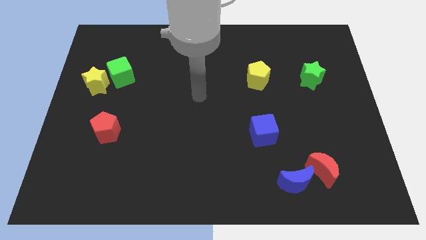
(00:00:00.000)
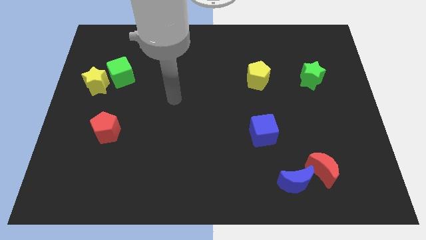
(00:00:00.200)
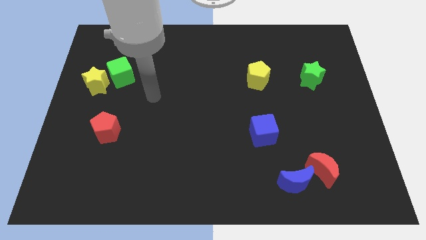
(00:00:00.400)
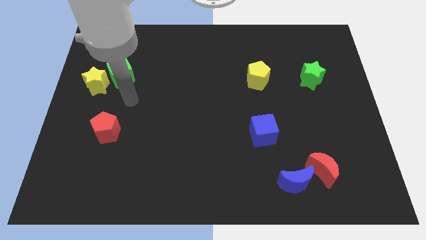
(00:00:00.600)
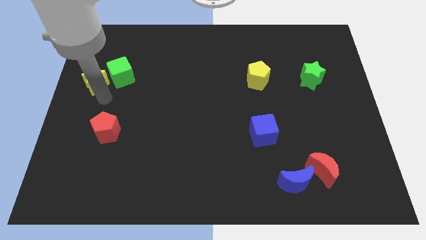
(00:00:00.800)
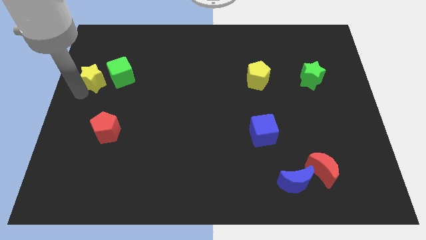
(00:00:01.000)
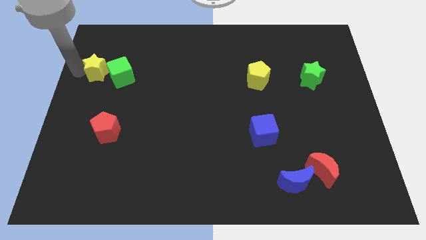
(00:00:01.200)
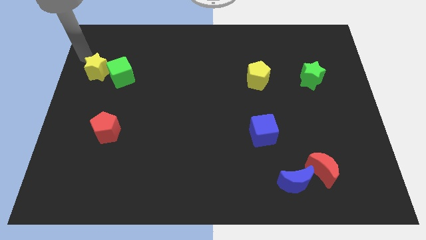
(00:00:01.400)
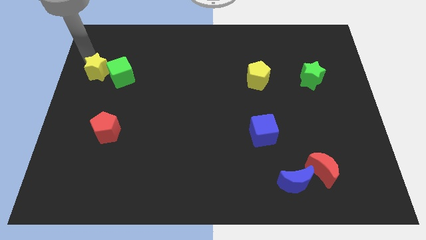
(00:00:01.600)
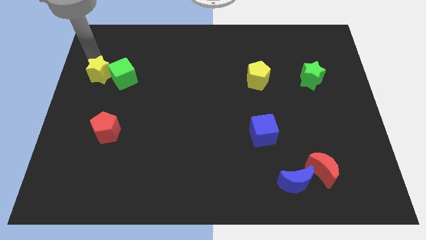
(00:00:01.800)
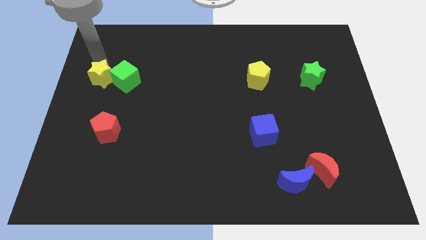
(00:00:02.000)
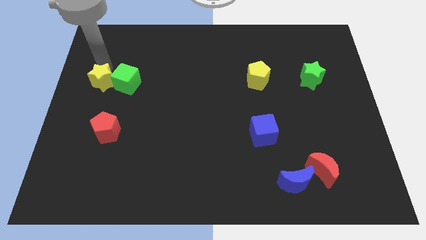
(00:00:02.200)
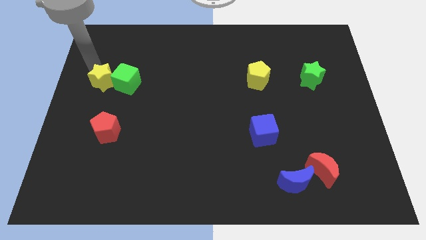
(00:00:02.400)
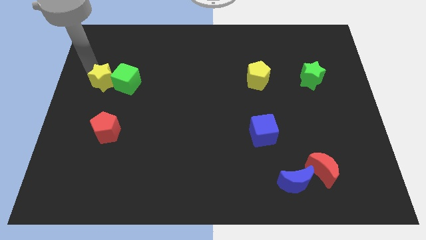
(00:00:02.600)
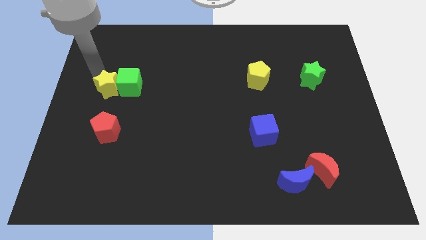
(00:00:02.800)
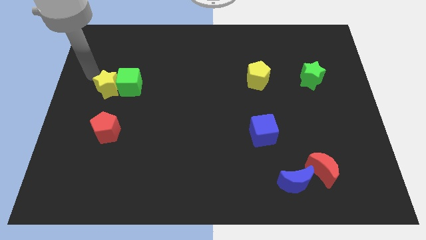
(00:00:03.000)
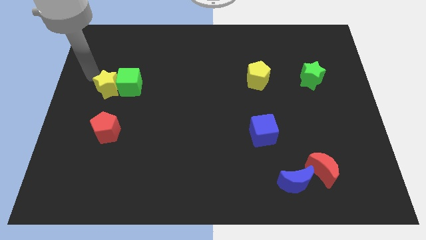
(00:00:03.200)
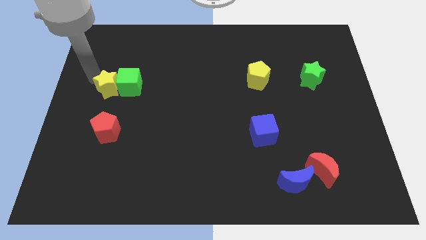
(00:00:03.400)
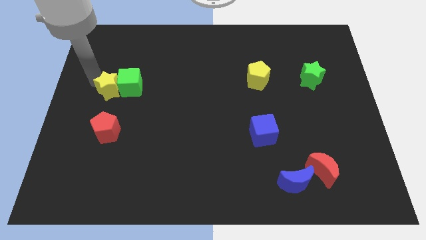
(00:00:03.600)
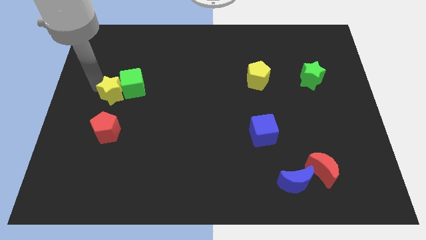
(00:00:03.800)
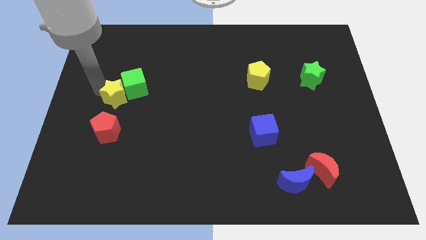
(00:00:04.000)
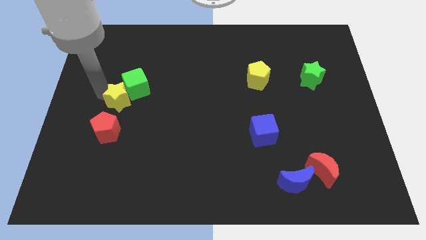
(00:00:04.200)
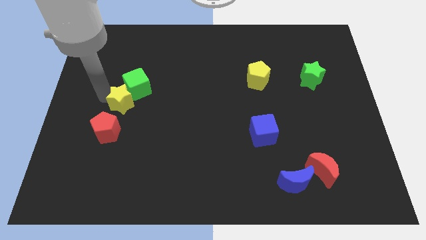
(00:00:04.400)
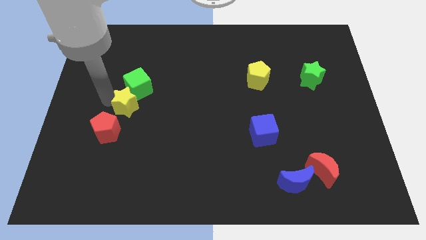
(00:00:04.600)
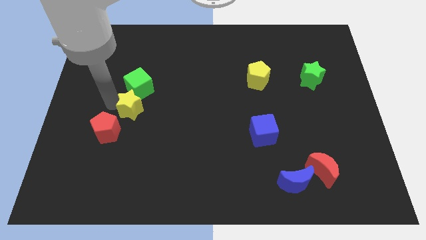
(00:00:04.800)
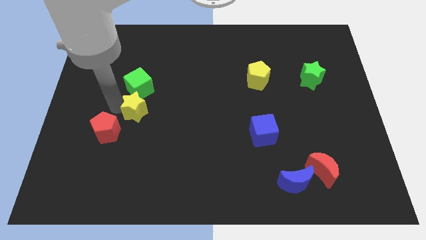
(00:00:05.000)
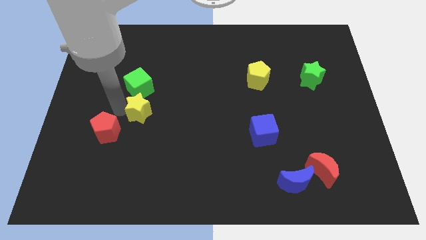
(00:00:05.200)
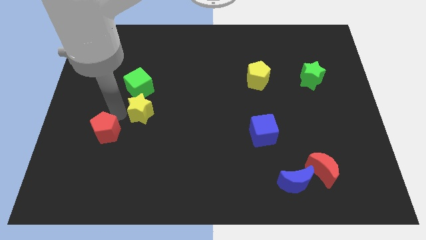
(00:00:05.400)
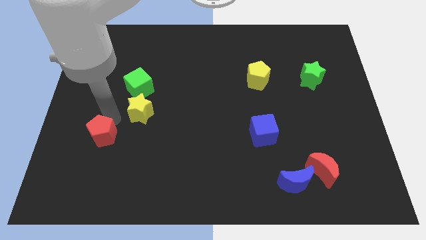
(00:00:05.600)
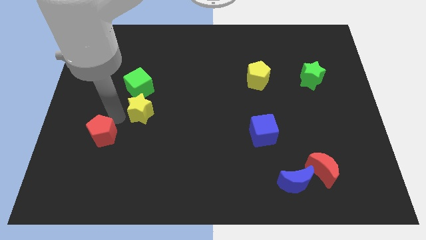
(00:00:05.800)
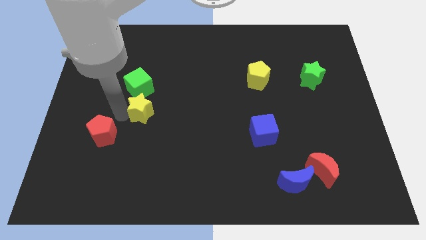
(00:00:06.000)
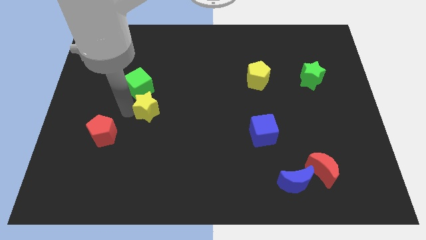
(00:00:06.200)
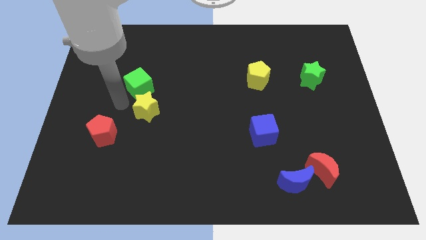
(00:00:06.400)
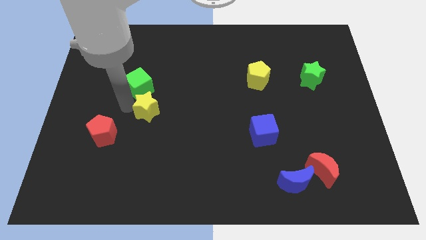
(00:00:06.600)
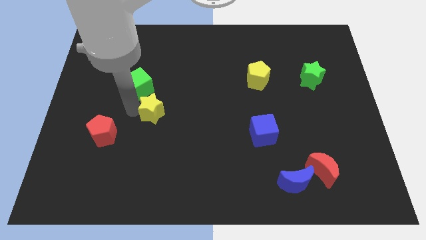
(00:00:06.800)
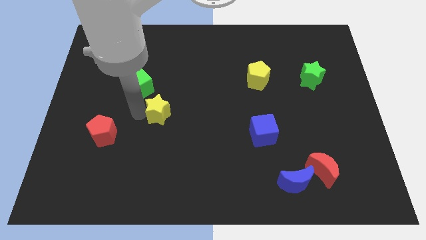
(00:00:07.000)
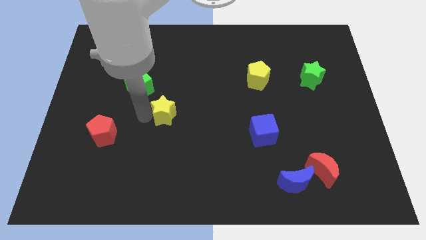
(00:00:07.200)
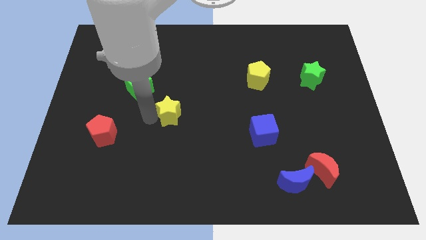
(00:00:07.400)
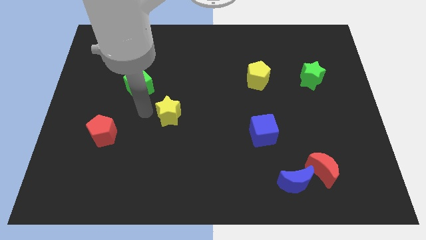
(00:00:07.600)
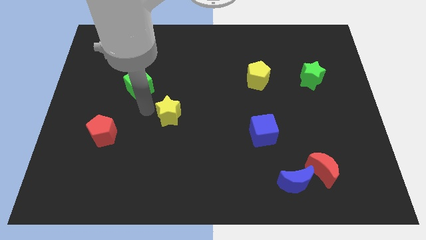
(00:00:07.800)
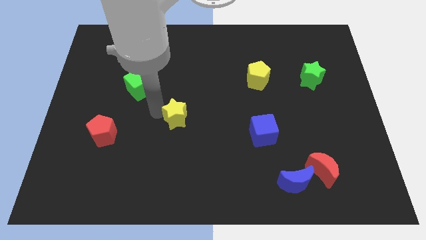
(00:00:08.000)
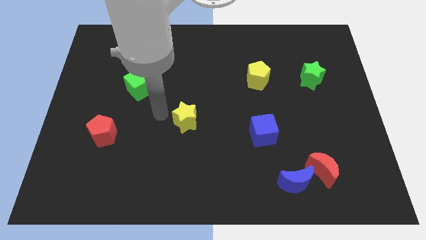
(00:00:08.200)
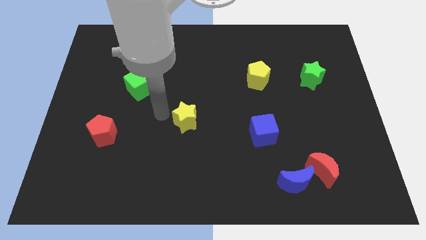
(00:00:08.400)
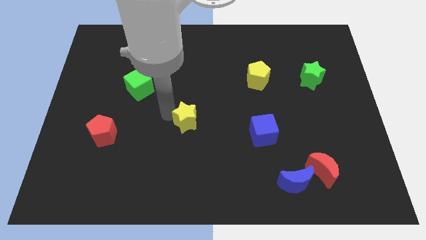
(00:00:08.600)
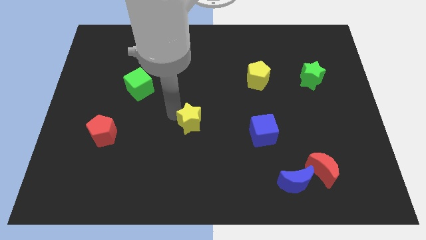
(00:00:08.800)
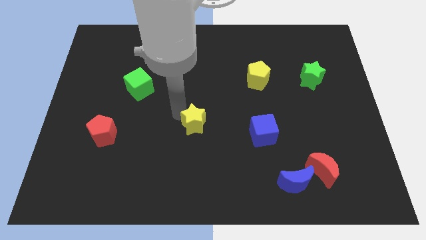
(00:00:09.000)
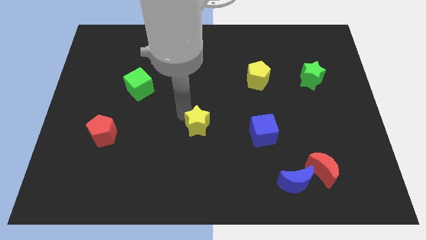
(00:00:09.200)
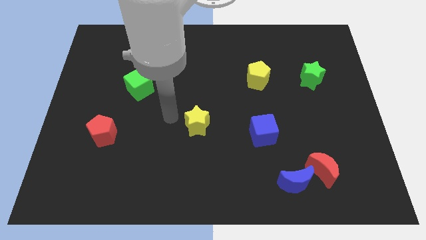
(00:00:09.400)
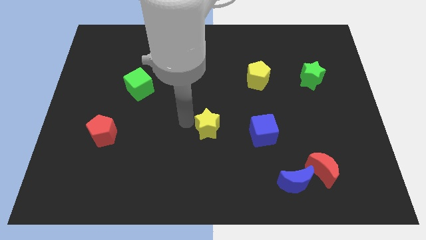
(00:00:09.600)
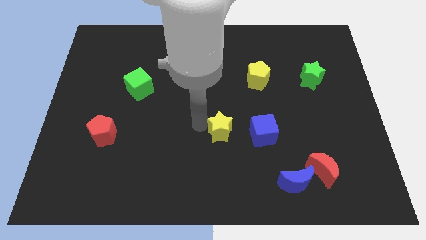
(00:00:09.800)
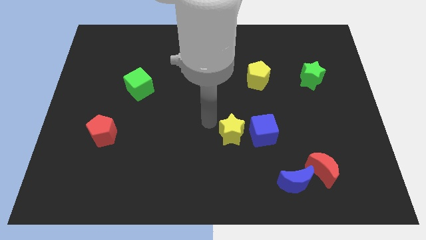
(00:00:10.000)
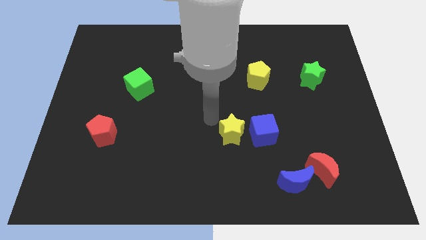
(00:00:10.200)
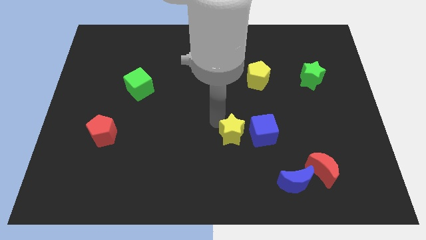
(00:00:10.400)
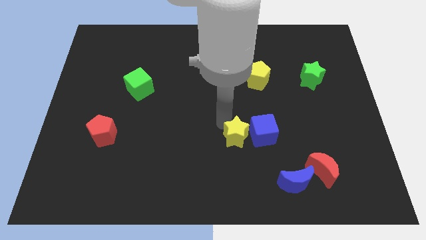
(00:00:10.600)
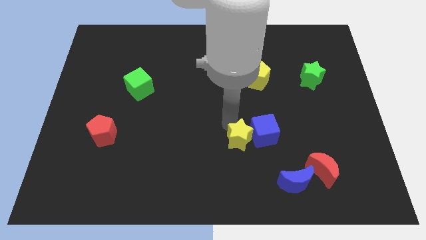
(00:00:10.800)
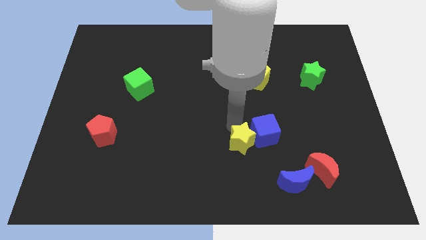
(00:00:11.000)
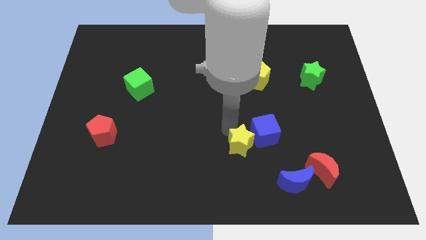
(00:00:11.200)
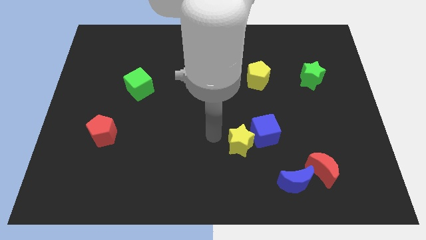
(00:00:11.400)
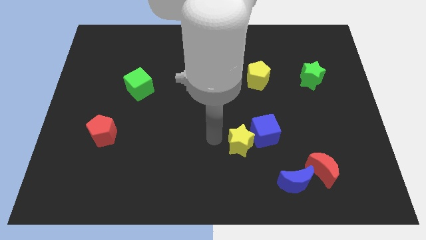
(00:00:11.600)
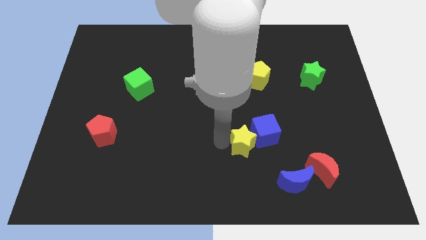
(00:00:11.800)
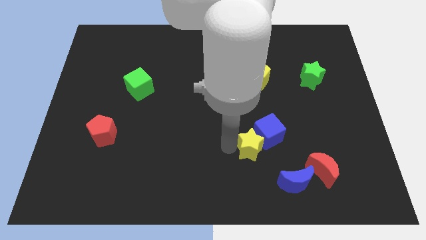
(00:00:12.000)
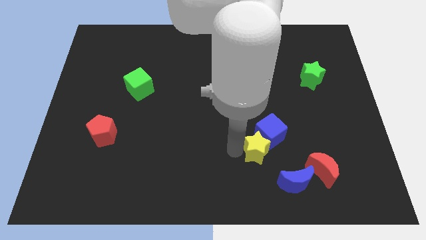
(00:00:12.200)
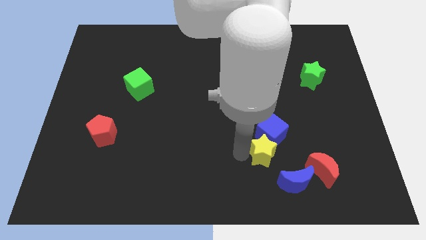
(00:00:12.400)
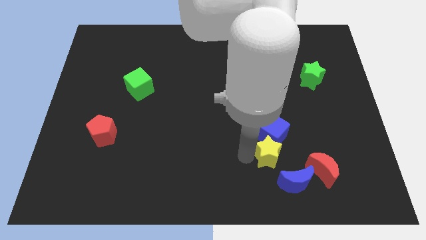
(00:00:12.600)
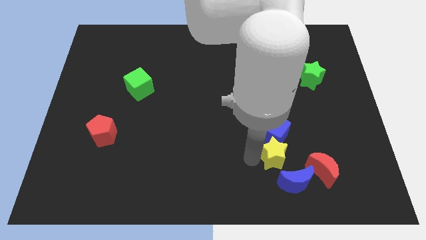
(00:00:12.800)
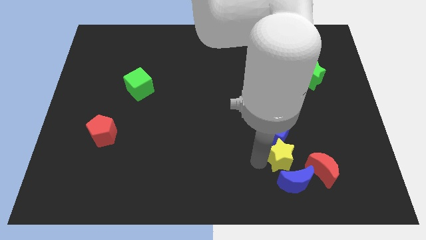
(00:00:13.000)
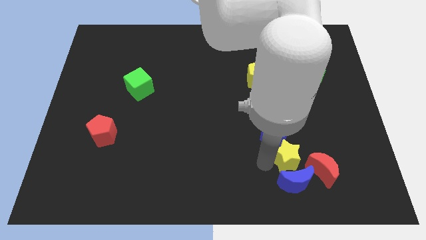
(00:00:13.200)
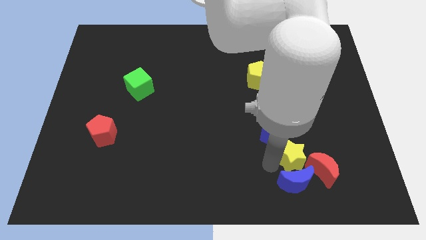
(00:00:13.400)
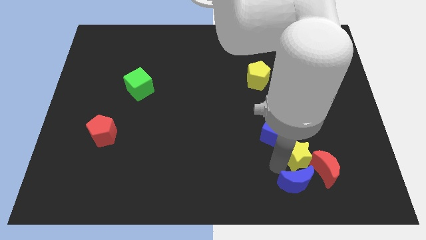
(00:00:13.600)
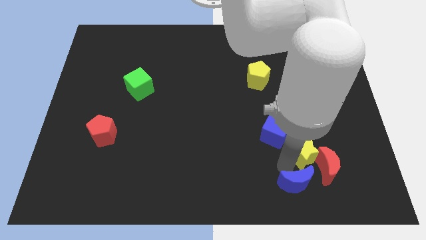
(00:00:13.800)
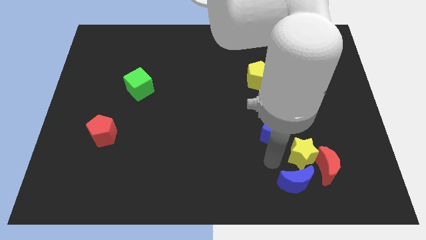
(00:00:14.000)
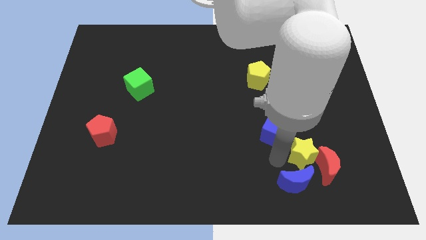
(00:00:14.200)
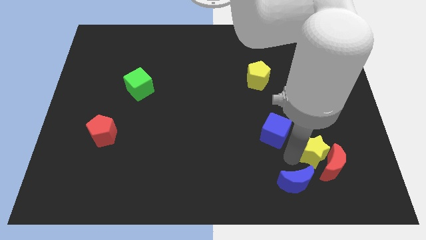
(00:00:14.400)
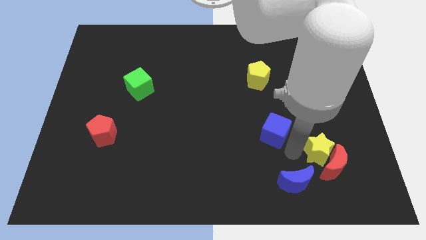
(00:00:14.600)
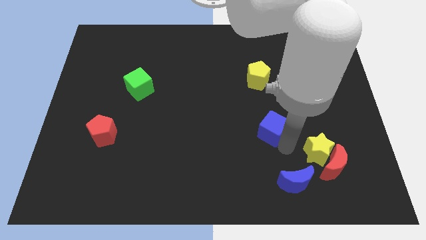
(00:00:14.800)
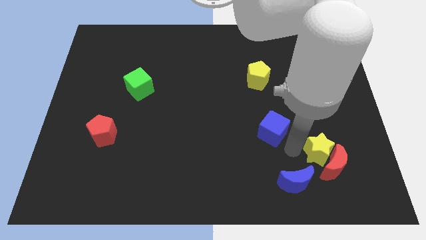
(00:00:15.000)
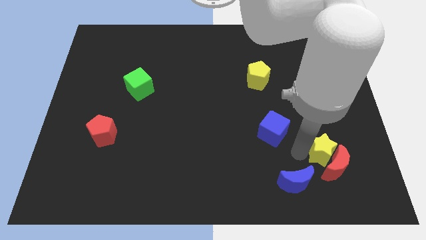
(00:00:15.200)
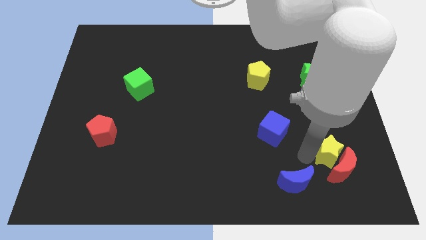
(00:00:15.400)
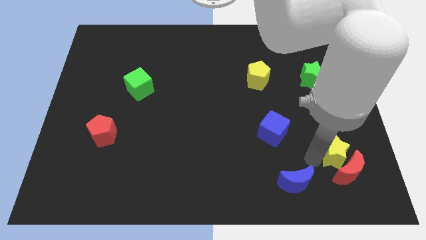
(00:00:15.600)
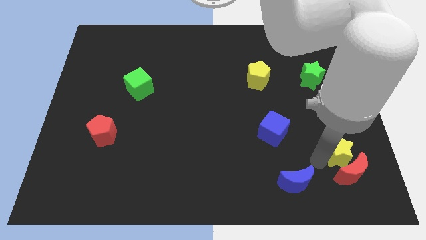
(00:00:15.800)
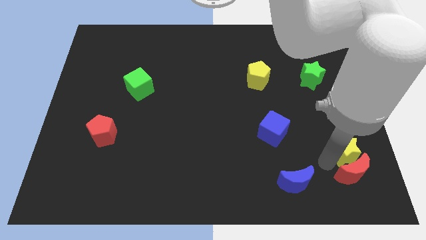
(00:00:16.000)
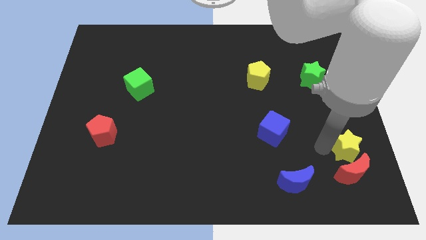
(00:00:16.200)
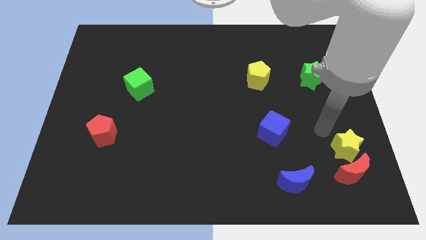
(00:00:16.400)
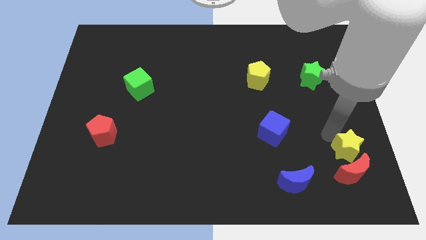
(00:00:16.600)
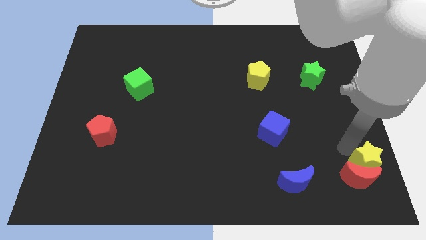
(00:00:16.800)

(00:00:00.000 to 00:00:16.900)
put the yellow star to the bottom right of the board
